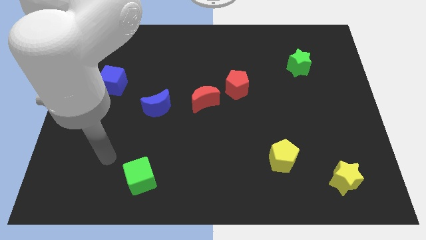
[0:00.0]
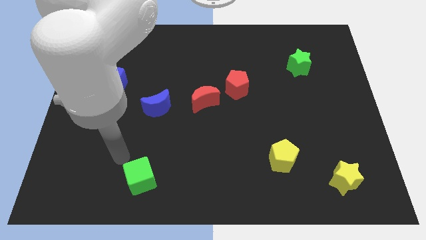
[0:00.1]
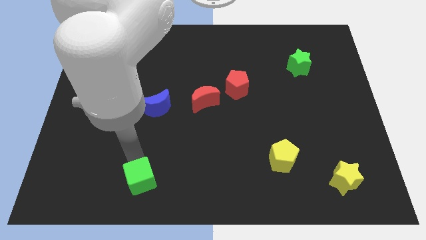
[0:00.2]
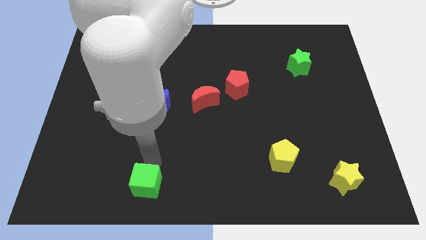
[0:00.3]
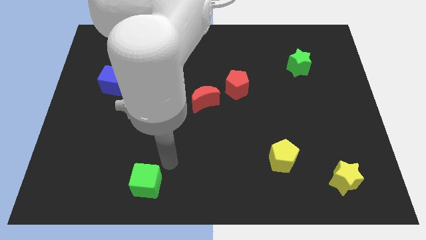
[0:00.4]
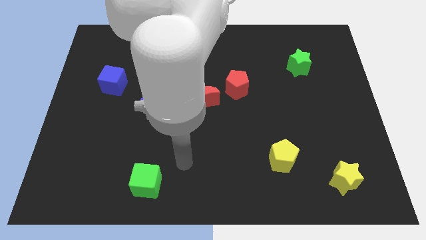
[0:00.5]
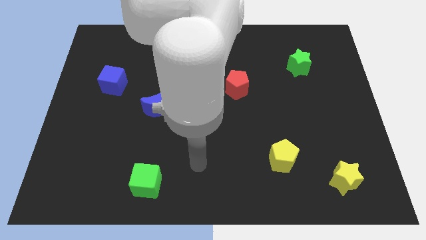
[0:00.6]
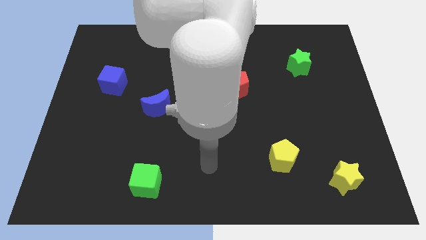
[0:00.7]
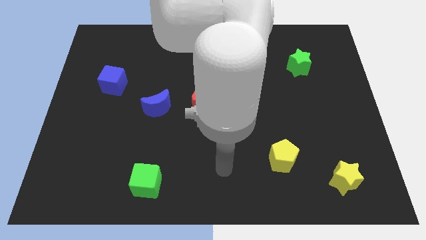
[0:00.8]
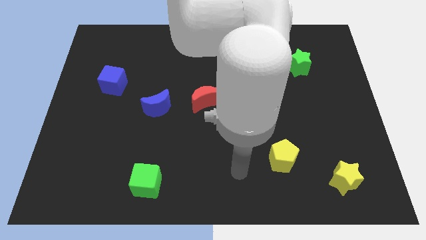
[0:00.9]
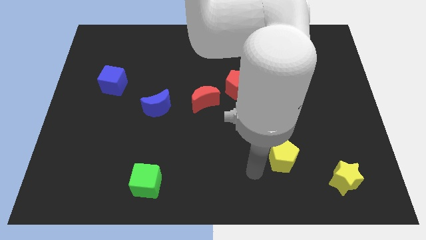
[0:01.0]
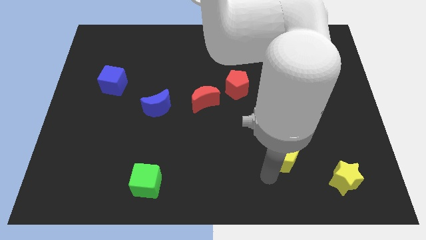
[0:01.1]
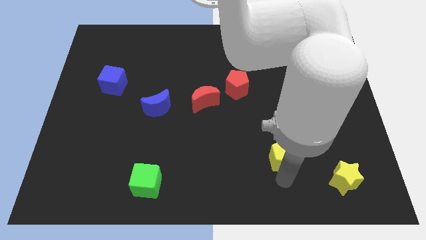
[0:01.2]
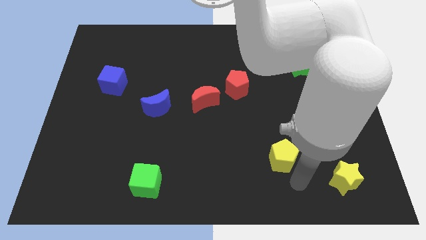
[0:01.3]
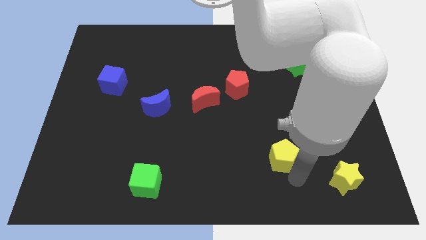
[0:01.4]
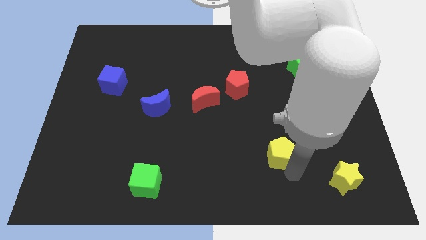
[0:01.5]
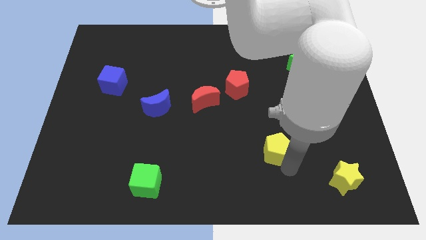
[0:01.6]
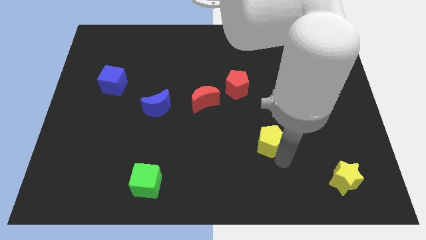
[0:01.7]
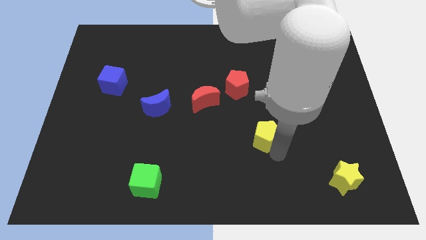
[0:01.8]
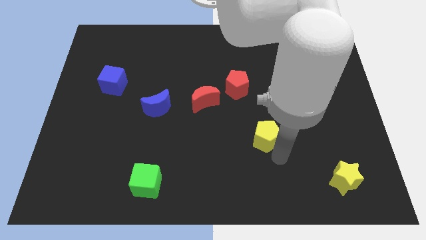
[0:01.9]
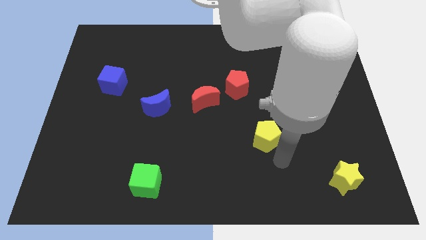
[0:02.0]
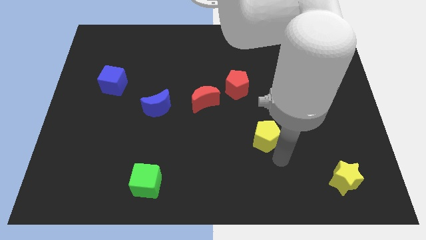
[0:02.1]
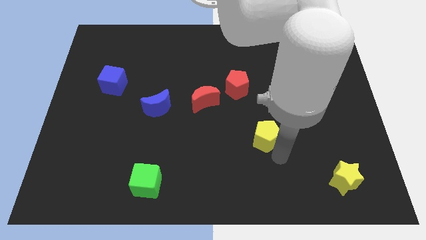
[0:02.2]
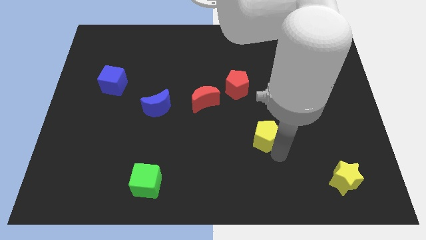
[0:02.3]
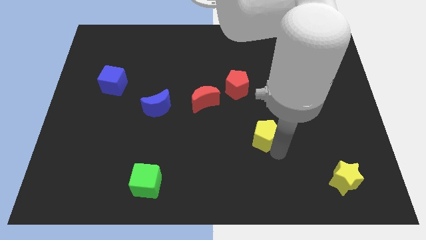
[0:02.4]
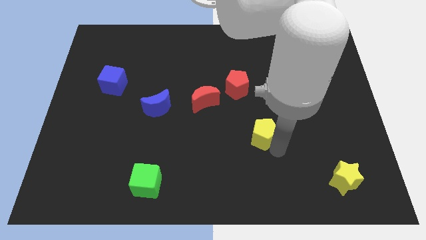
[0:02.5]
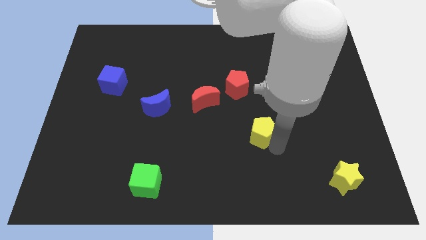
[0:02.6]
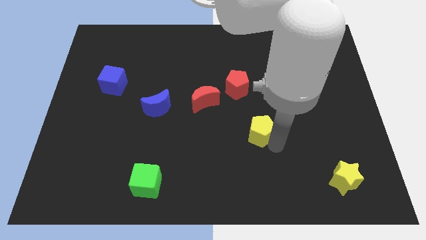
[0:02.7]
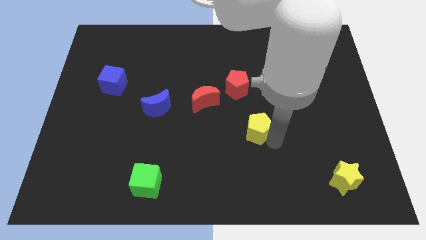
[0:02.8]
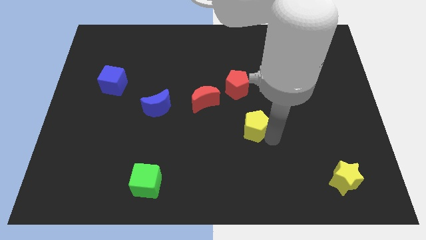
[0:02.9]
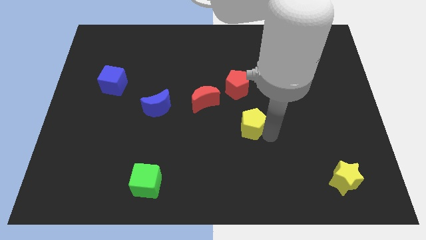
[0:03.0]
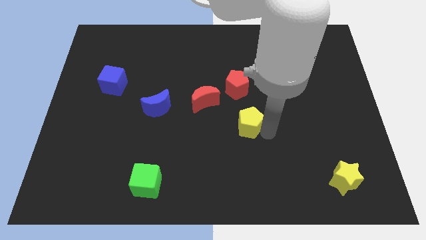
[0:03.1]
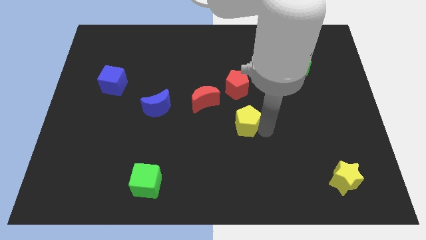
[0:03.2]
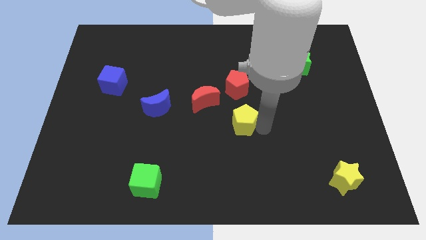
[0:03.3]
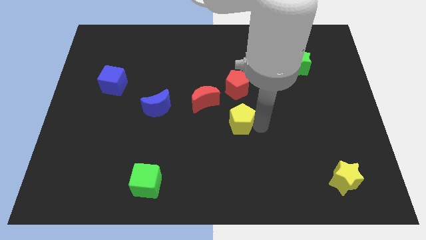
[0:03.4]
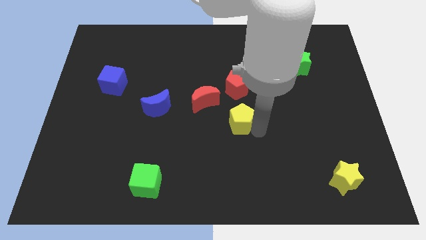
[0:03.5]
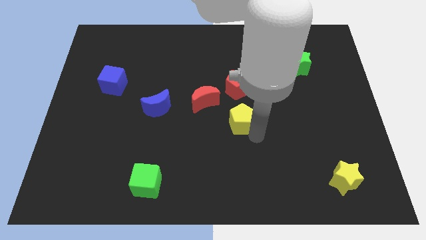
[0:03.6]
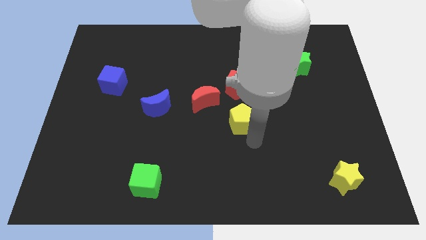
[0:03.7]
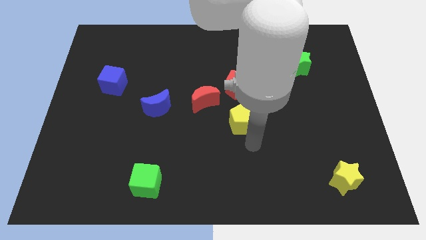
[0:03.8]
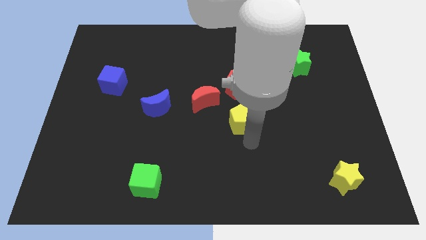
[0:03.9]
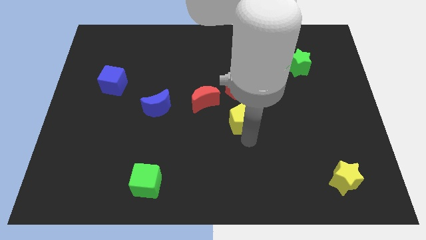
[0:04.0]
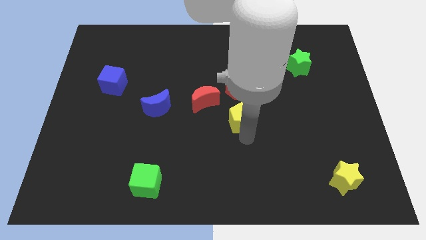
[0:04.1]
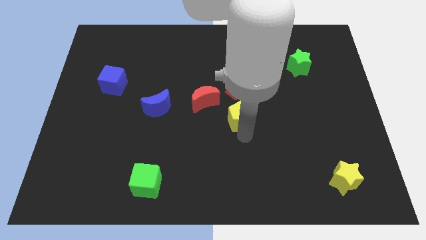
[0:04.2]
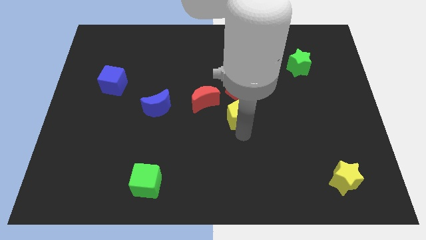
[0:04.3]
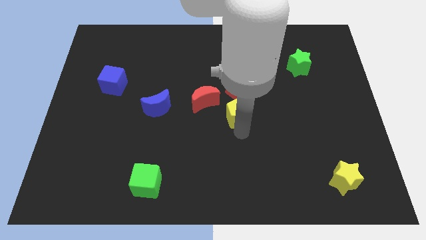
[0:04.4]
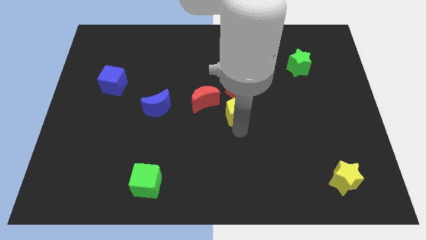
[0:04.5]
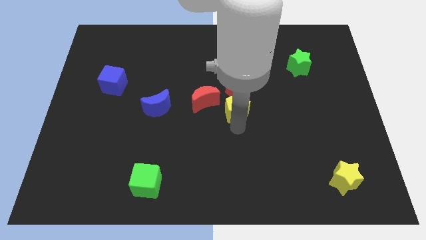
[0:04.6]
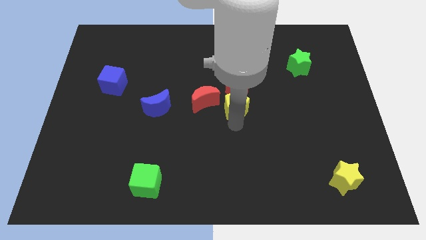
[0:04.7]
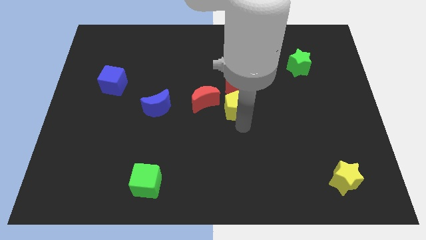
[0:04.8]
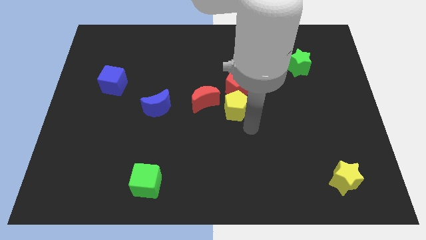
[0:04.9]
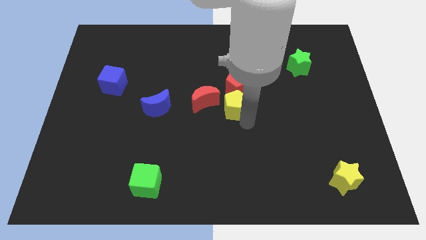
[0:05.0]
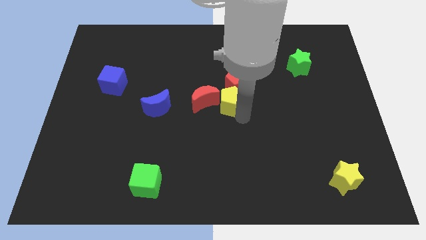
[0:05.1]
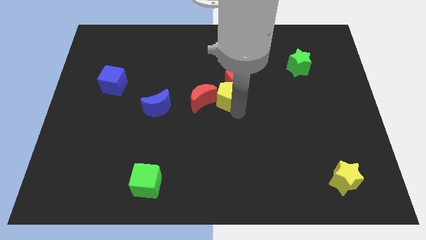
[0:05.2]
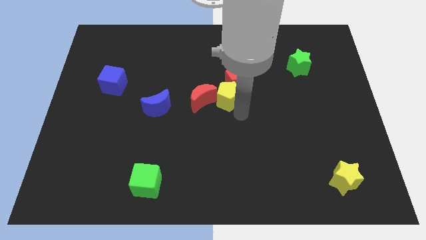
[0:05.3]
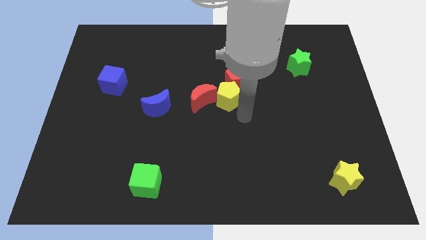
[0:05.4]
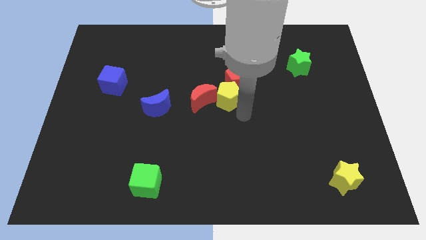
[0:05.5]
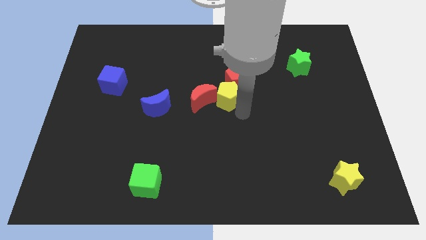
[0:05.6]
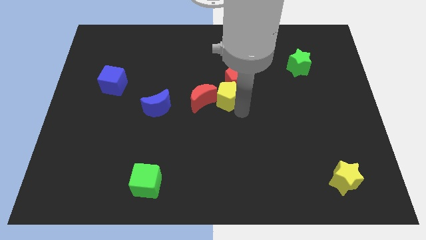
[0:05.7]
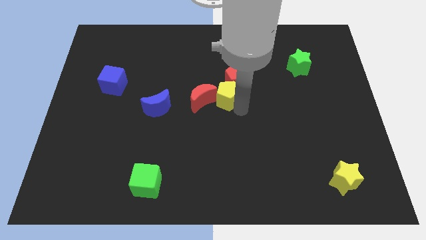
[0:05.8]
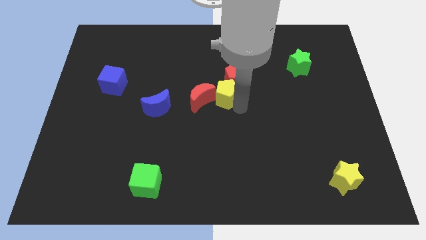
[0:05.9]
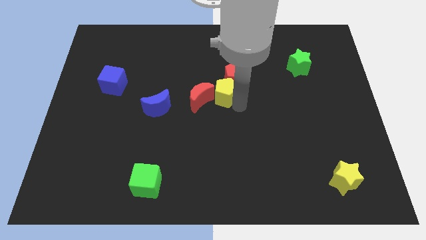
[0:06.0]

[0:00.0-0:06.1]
slide the yellow pentagon up and then left

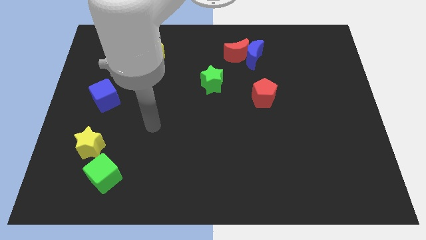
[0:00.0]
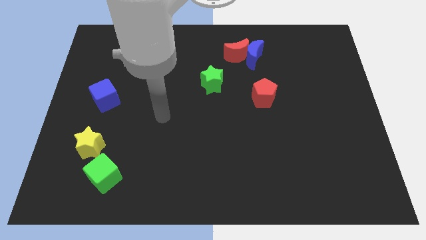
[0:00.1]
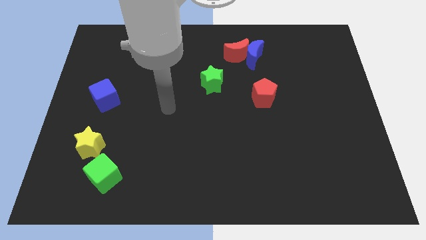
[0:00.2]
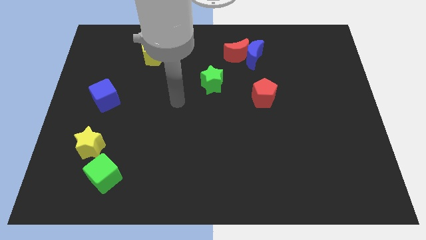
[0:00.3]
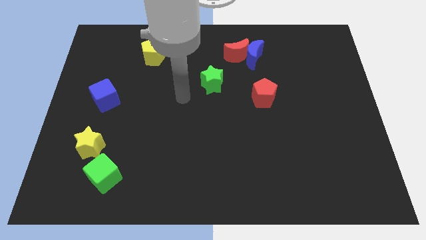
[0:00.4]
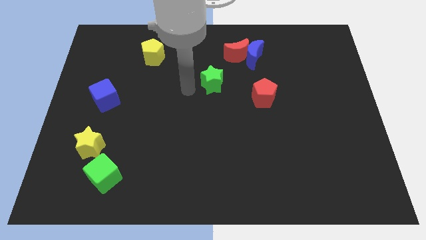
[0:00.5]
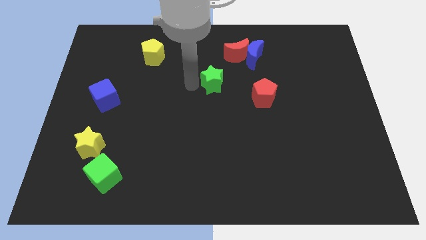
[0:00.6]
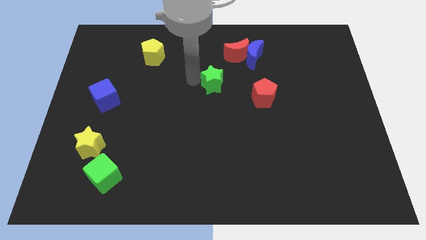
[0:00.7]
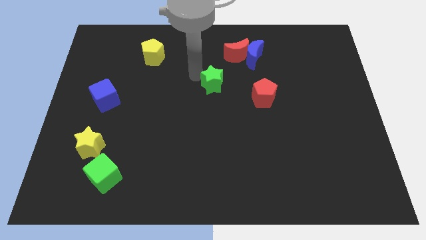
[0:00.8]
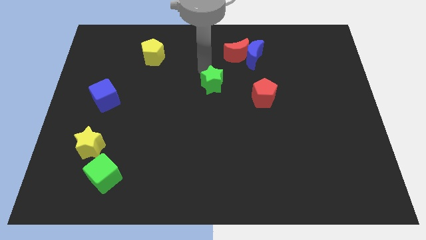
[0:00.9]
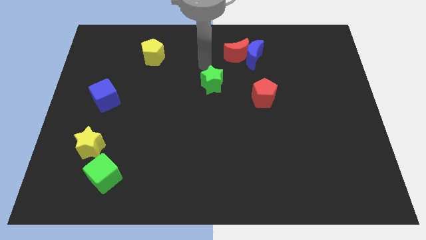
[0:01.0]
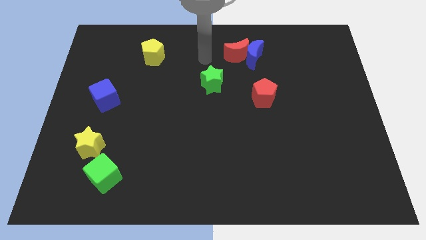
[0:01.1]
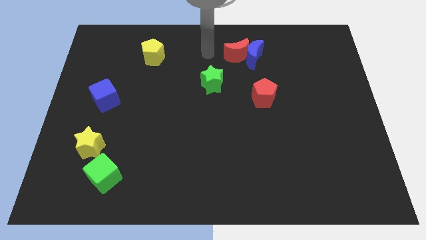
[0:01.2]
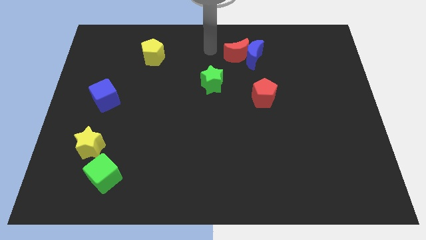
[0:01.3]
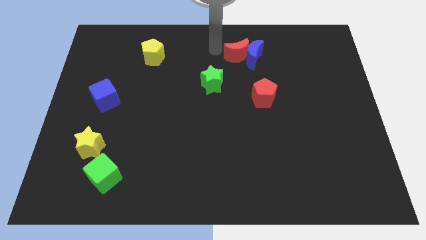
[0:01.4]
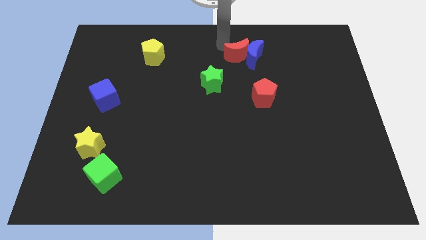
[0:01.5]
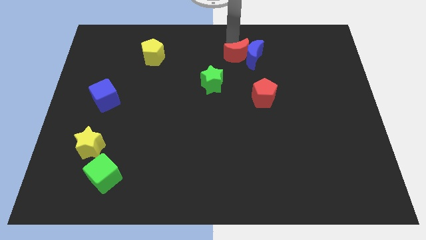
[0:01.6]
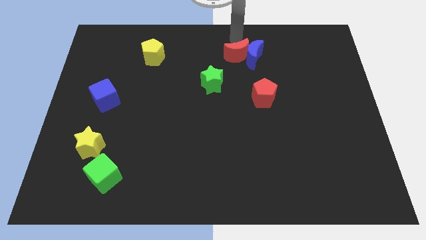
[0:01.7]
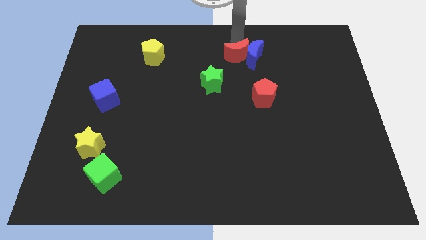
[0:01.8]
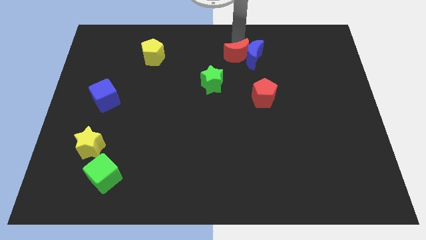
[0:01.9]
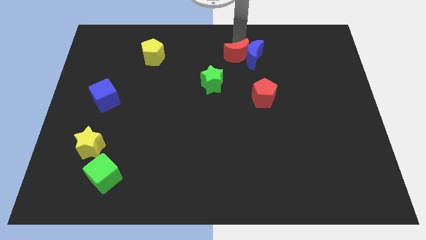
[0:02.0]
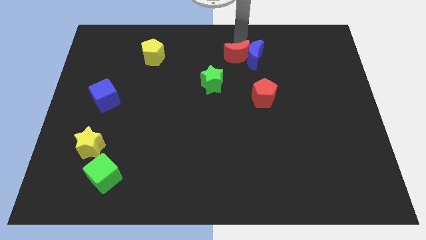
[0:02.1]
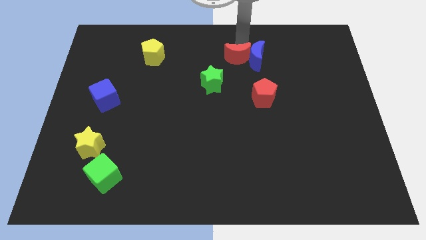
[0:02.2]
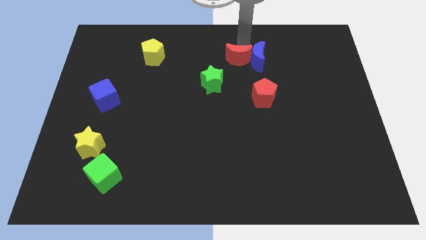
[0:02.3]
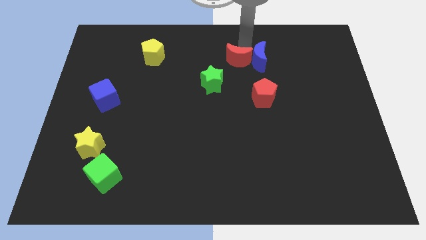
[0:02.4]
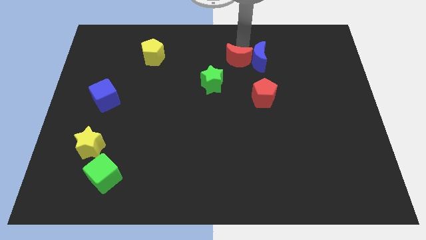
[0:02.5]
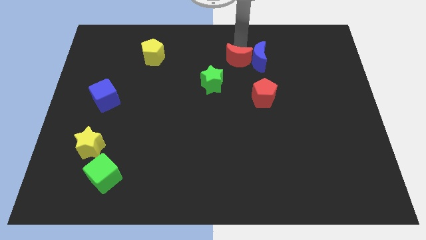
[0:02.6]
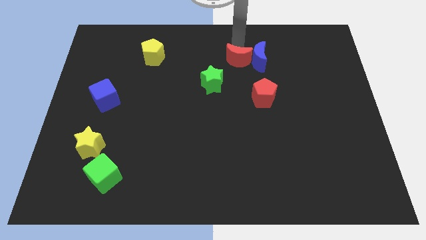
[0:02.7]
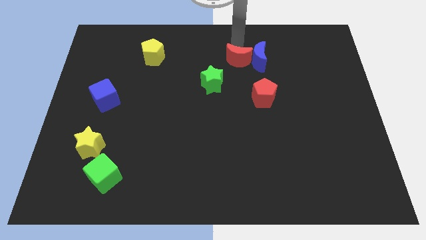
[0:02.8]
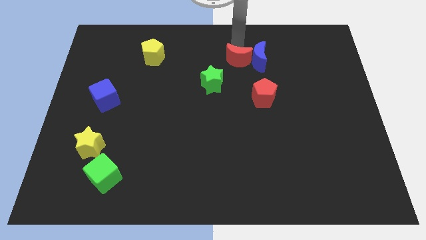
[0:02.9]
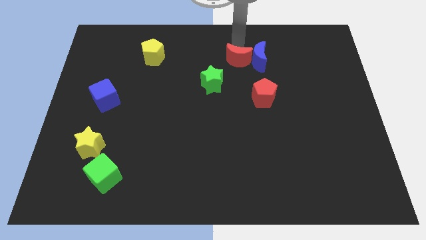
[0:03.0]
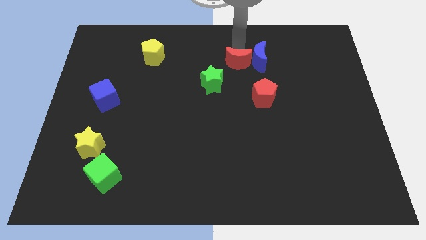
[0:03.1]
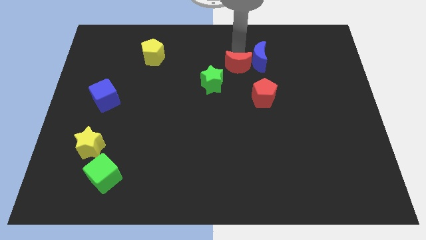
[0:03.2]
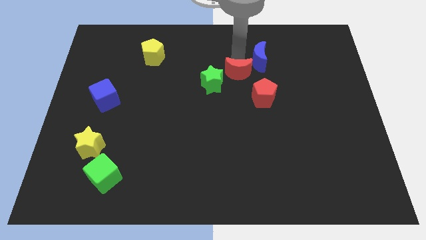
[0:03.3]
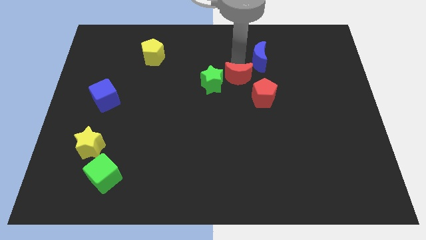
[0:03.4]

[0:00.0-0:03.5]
push the red moon down a bit
